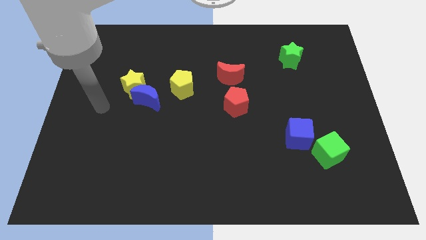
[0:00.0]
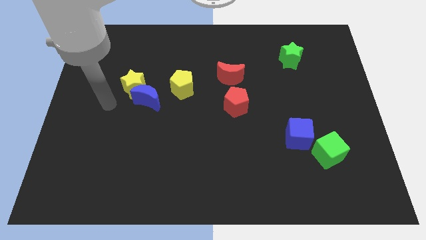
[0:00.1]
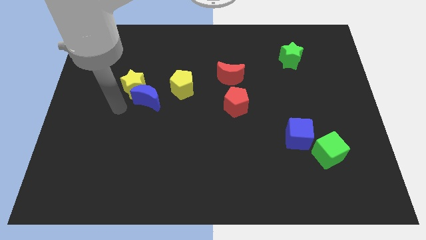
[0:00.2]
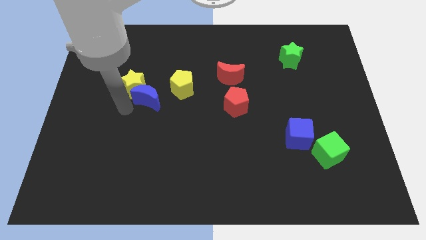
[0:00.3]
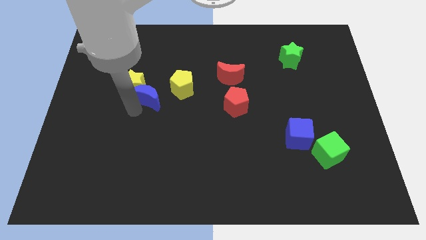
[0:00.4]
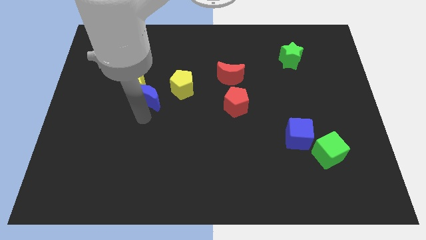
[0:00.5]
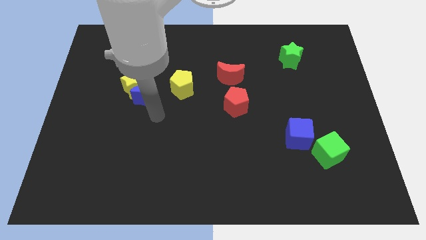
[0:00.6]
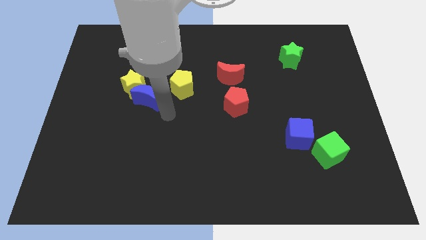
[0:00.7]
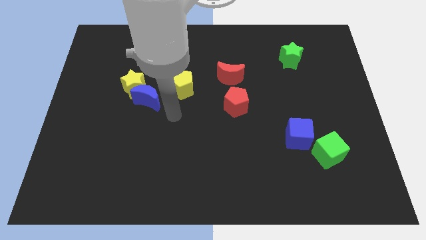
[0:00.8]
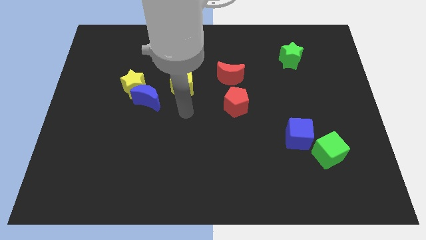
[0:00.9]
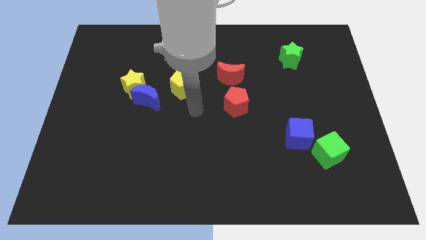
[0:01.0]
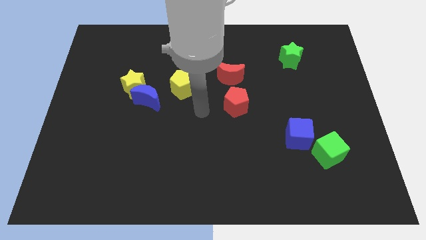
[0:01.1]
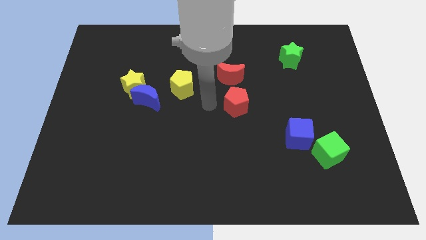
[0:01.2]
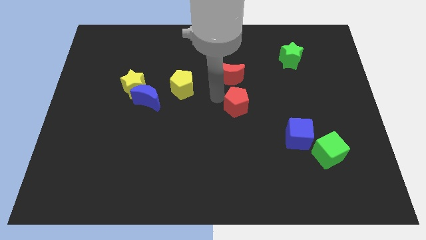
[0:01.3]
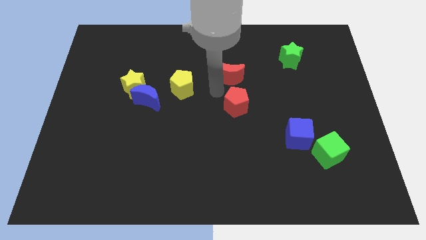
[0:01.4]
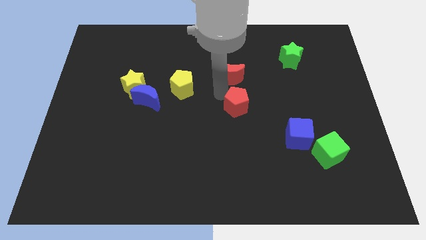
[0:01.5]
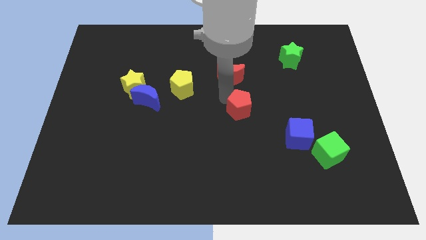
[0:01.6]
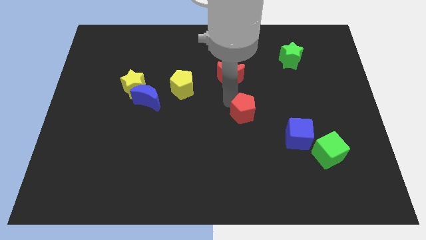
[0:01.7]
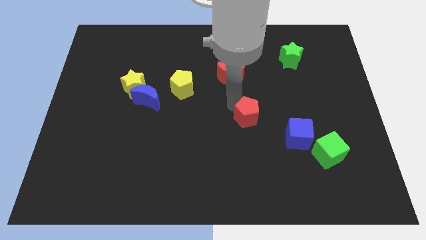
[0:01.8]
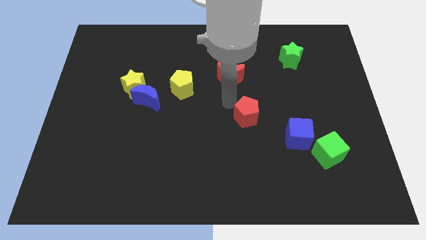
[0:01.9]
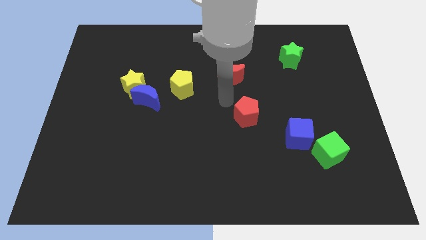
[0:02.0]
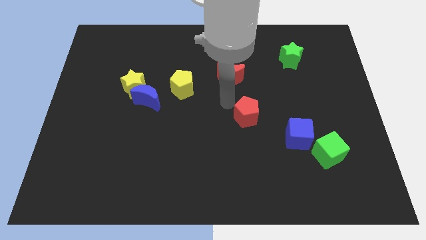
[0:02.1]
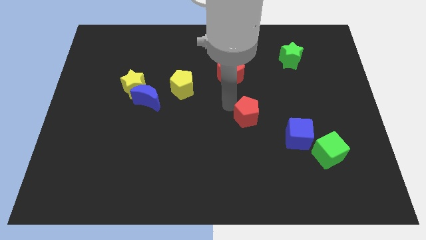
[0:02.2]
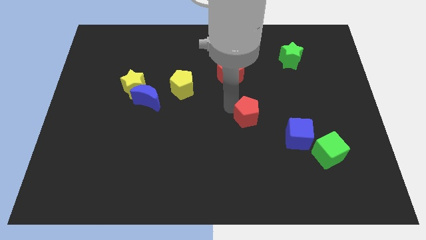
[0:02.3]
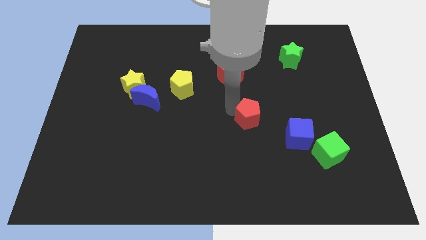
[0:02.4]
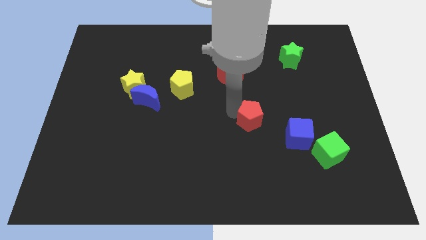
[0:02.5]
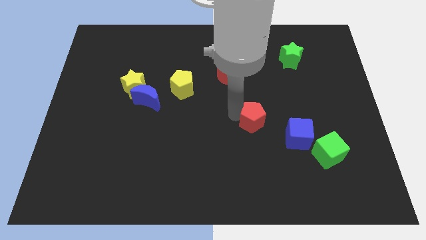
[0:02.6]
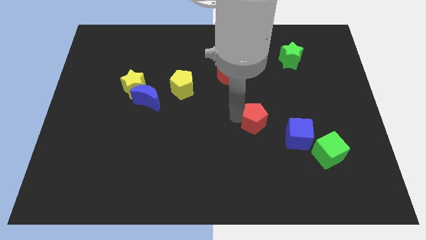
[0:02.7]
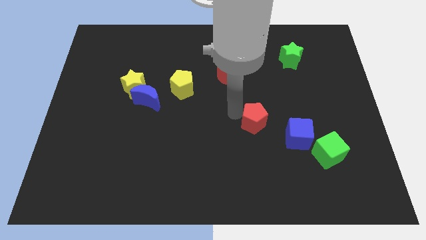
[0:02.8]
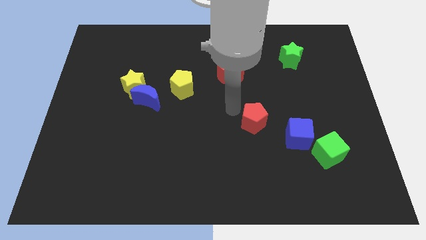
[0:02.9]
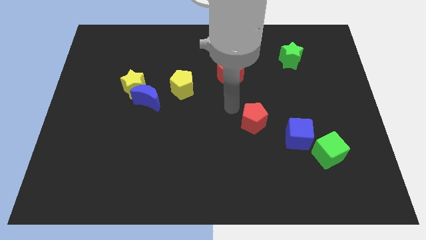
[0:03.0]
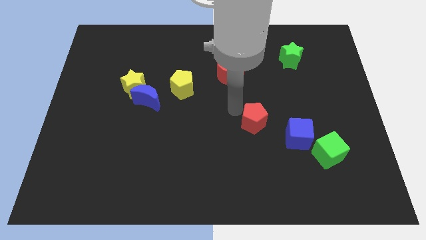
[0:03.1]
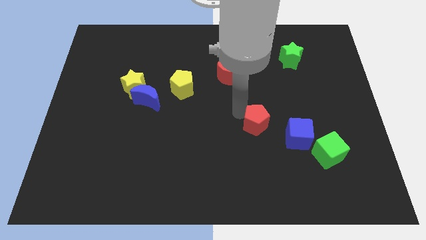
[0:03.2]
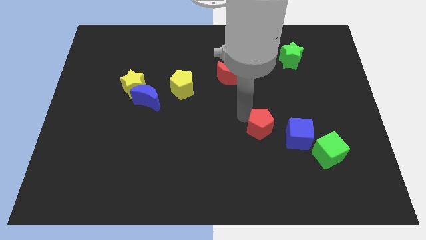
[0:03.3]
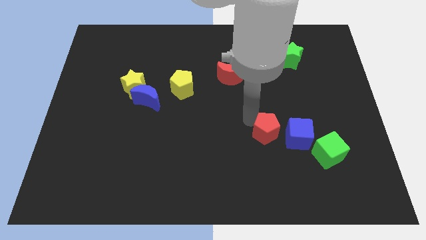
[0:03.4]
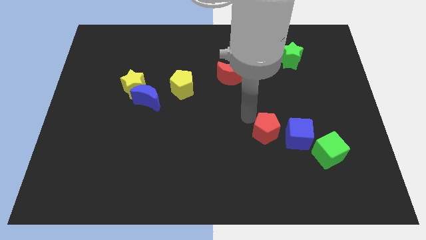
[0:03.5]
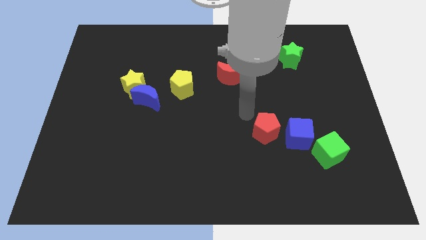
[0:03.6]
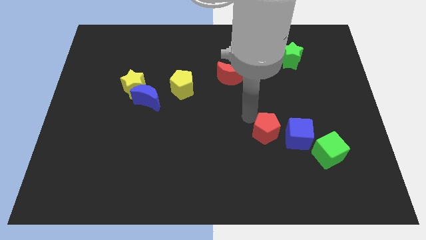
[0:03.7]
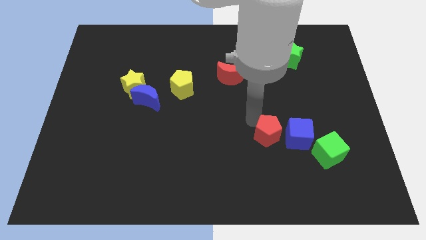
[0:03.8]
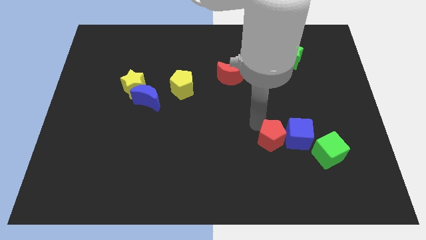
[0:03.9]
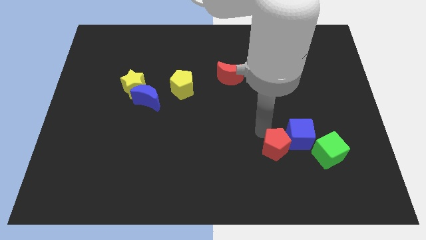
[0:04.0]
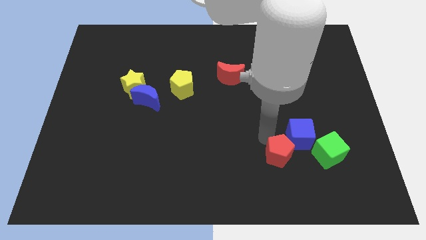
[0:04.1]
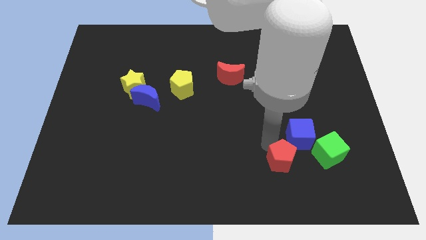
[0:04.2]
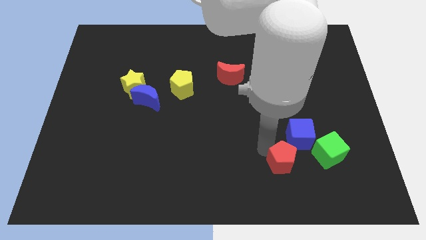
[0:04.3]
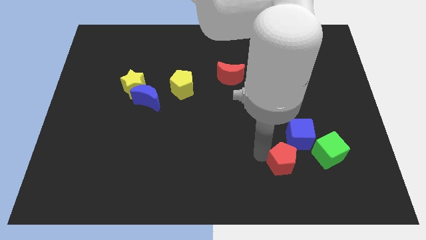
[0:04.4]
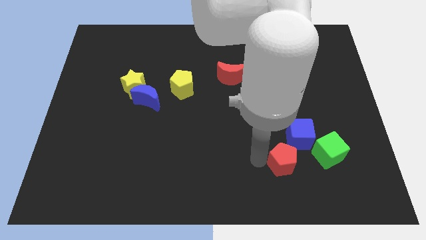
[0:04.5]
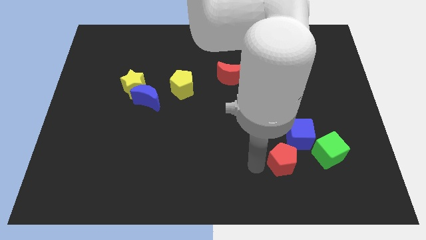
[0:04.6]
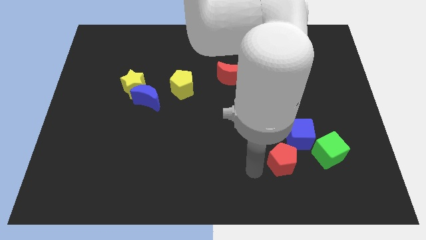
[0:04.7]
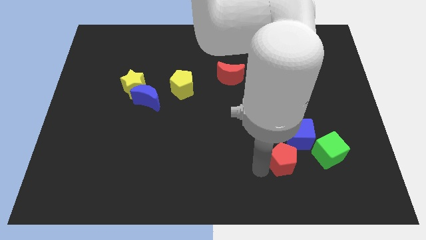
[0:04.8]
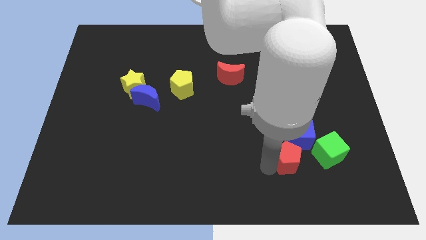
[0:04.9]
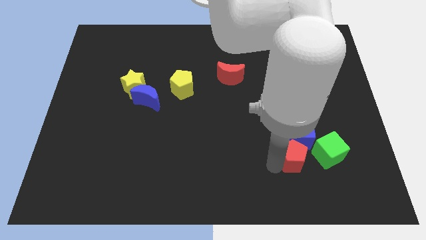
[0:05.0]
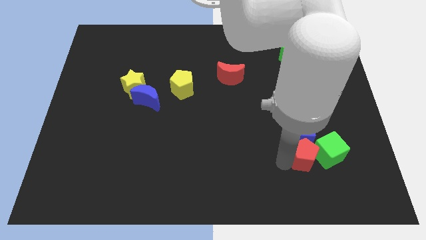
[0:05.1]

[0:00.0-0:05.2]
slide the red pentagon to the green cube

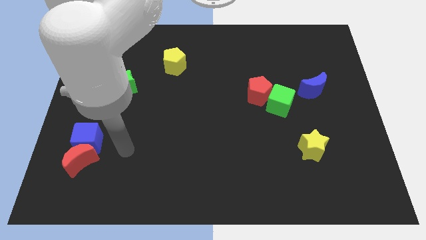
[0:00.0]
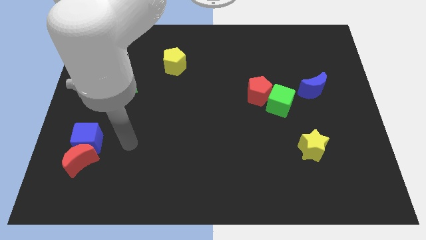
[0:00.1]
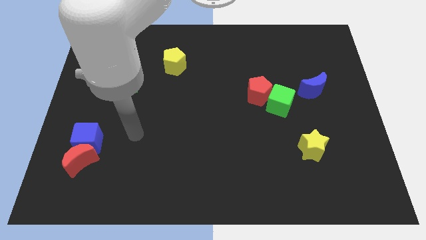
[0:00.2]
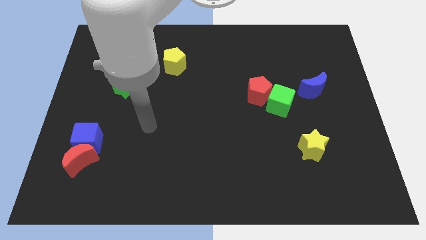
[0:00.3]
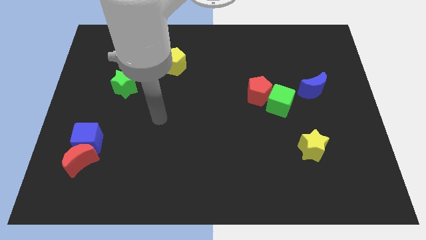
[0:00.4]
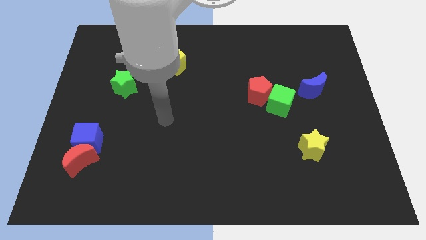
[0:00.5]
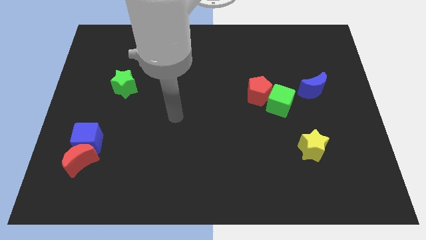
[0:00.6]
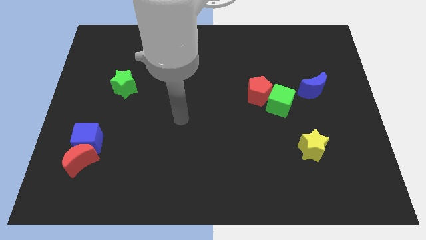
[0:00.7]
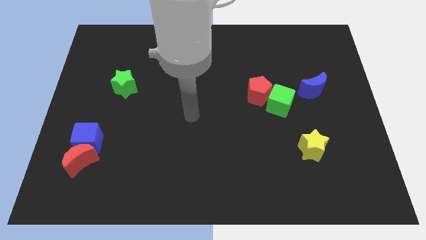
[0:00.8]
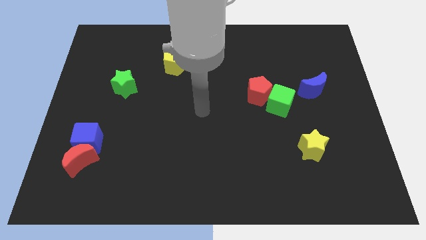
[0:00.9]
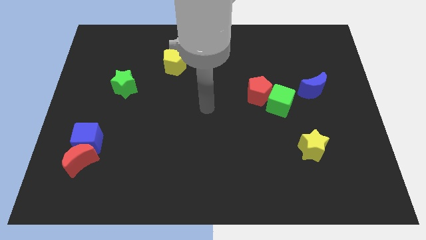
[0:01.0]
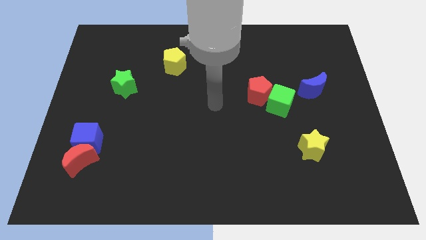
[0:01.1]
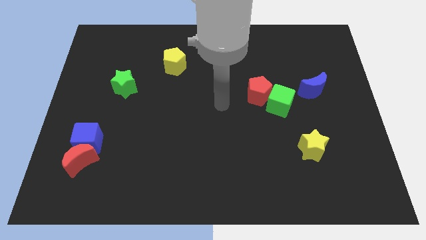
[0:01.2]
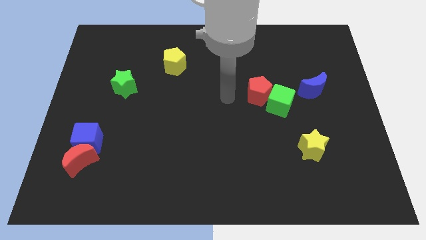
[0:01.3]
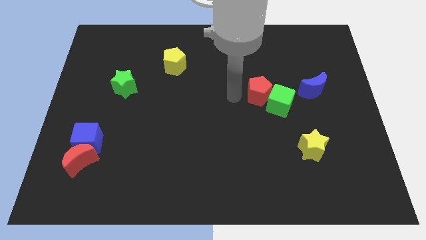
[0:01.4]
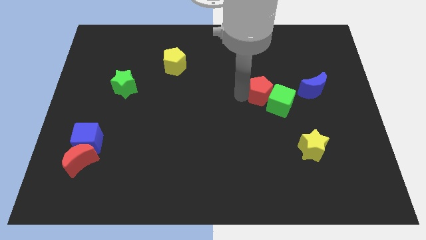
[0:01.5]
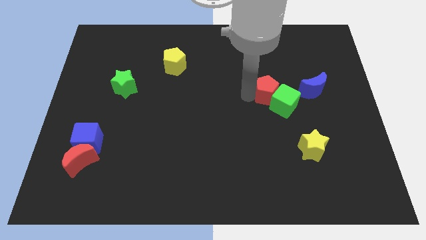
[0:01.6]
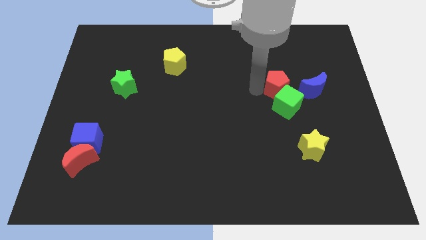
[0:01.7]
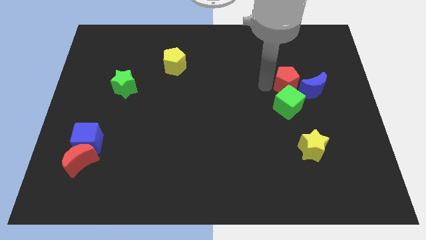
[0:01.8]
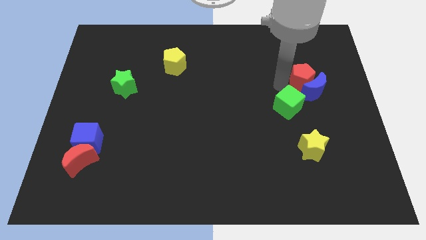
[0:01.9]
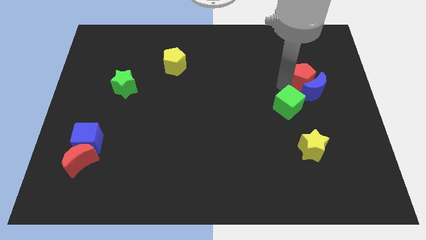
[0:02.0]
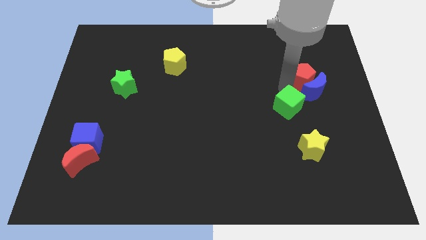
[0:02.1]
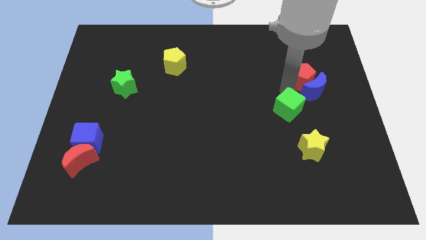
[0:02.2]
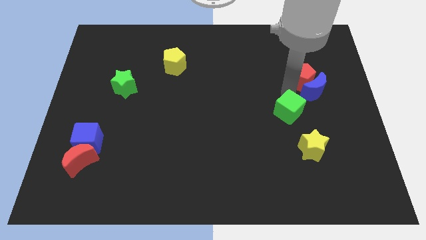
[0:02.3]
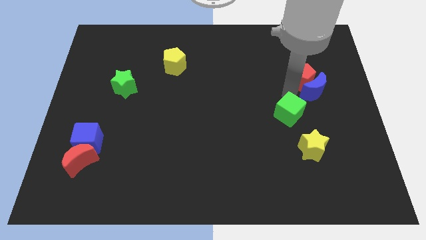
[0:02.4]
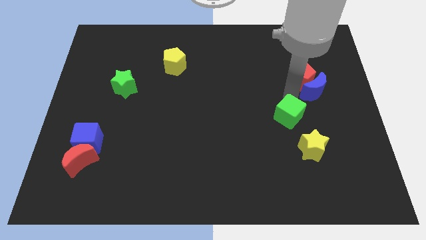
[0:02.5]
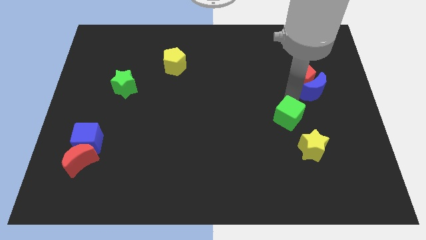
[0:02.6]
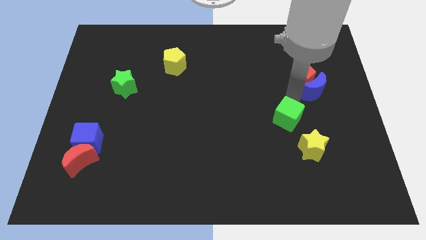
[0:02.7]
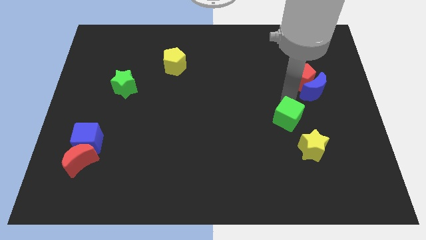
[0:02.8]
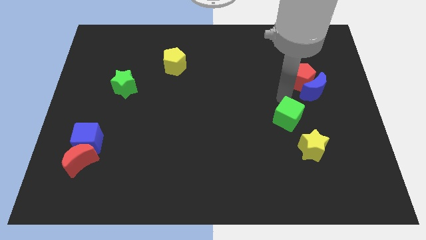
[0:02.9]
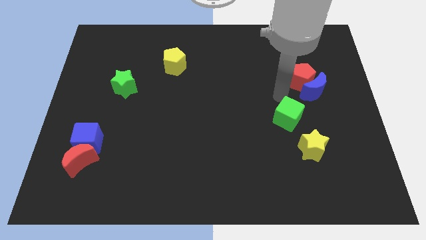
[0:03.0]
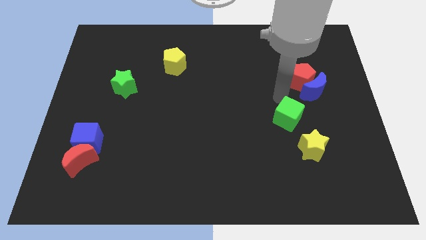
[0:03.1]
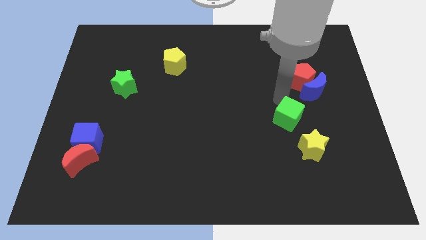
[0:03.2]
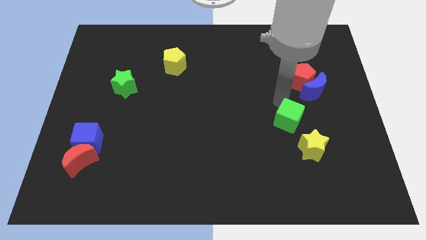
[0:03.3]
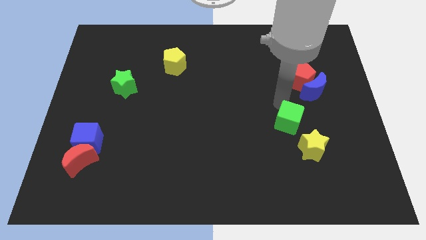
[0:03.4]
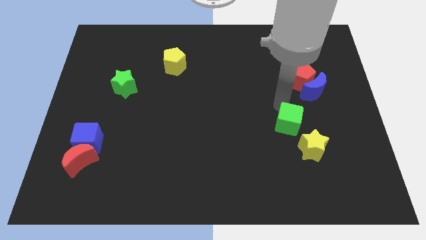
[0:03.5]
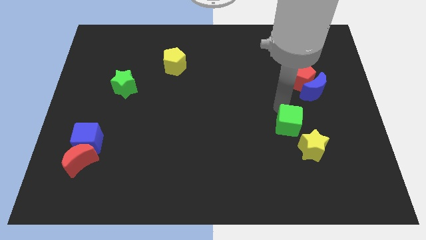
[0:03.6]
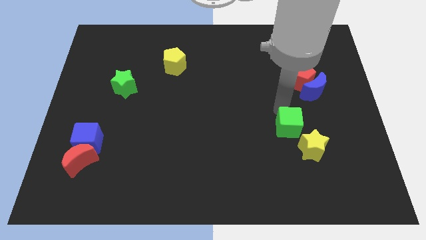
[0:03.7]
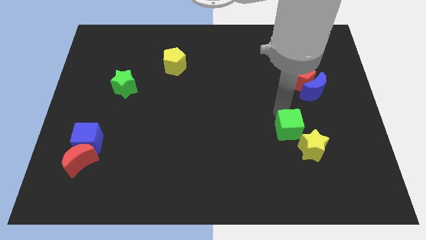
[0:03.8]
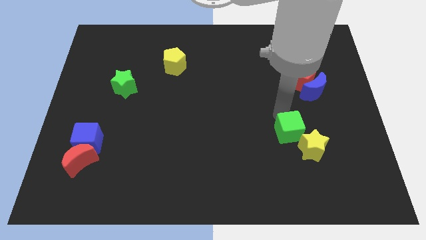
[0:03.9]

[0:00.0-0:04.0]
slide the green cube to the yellow star
